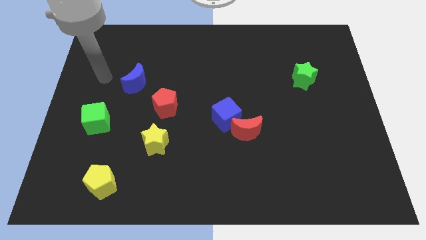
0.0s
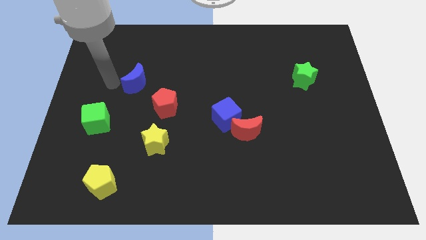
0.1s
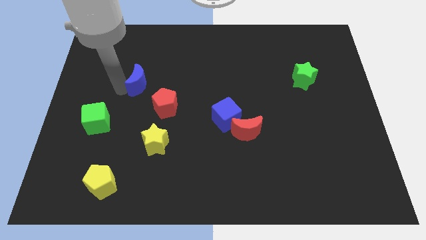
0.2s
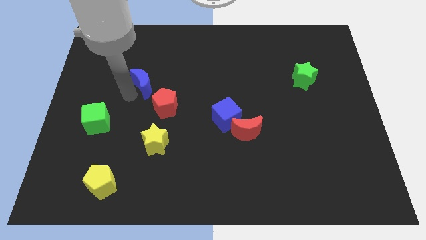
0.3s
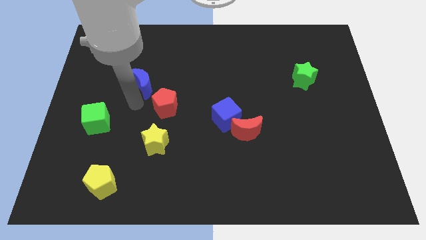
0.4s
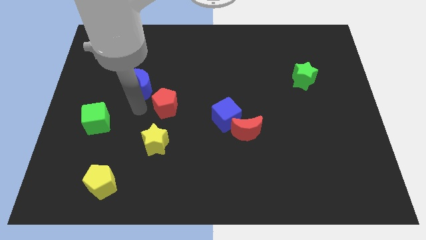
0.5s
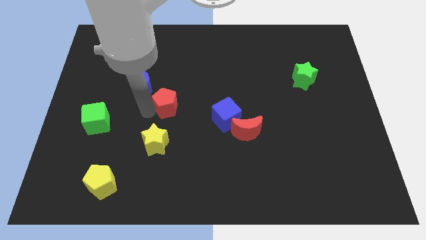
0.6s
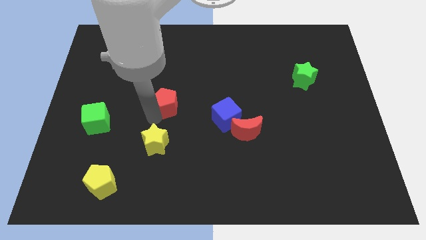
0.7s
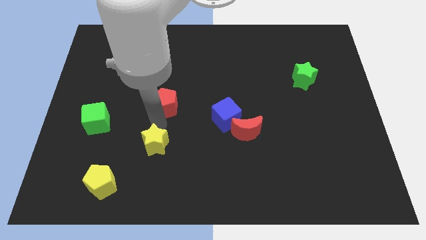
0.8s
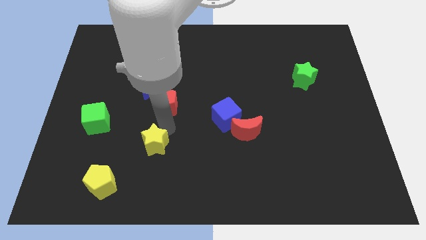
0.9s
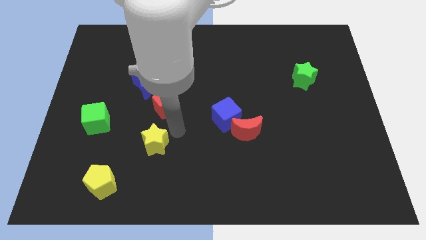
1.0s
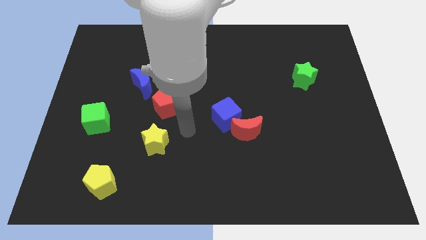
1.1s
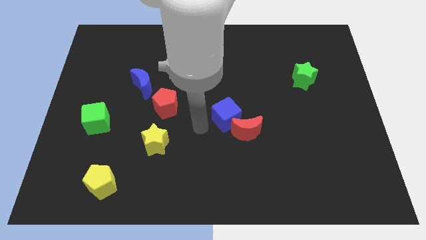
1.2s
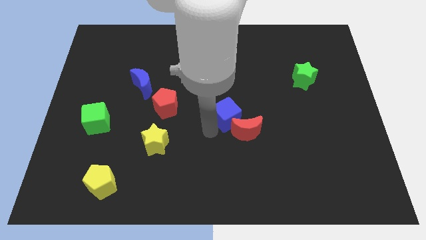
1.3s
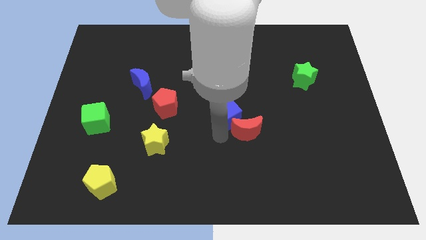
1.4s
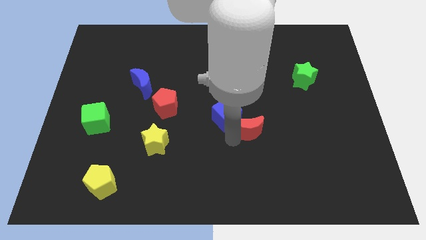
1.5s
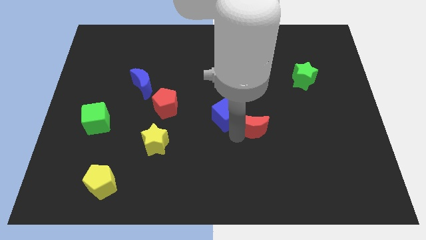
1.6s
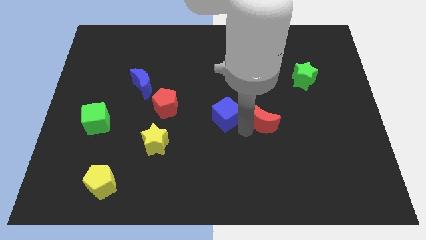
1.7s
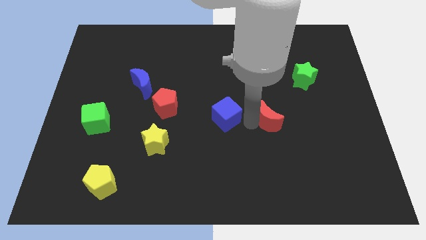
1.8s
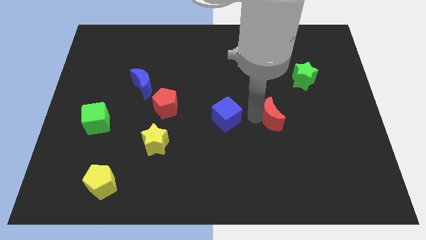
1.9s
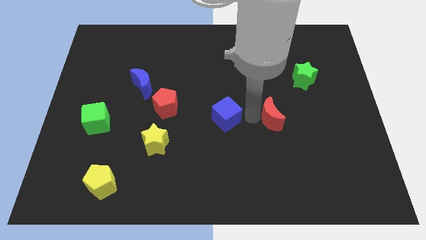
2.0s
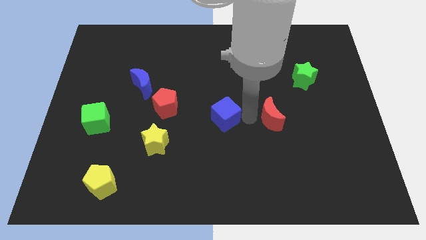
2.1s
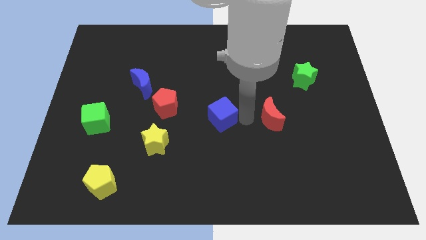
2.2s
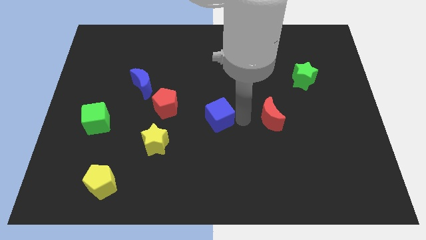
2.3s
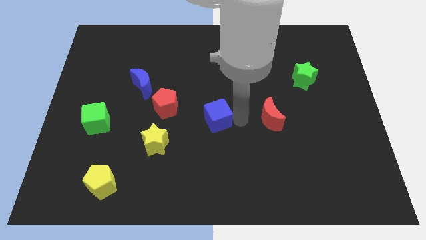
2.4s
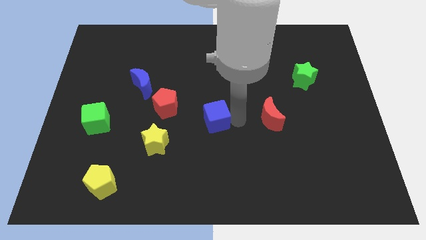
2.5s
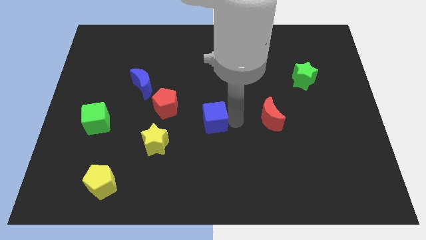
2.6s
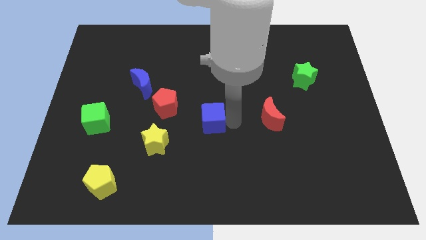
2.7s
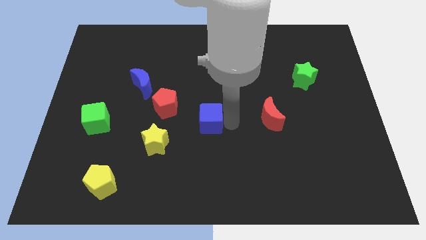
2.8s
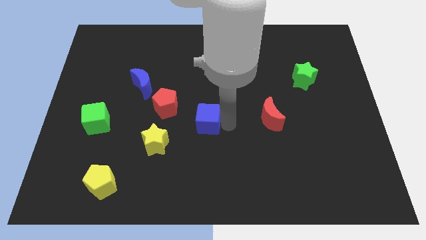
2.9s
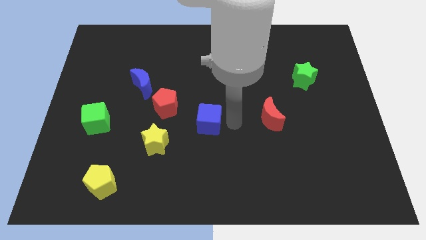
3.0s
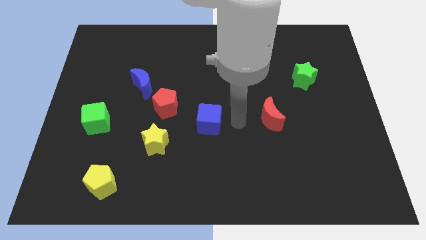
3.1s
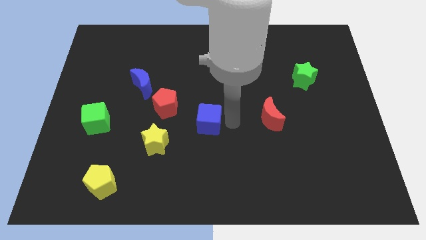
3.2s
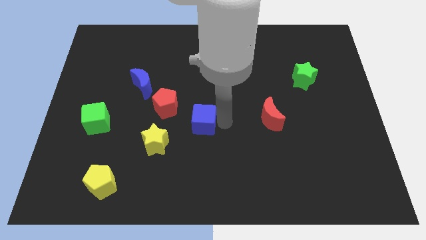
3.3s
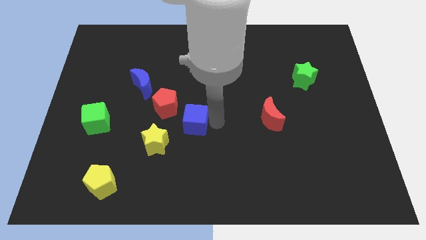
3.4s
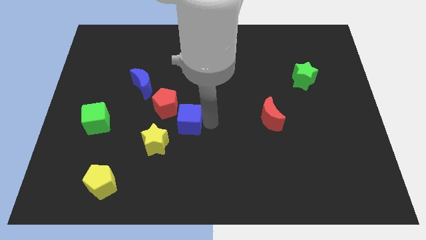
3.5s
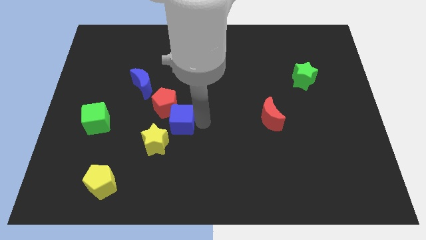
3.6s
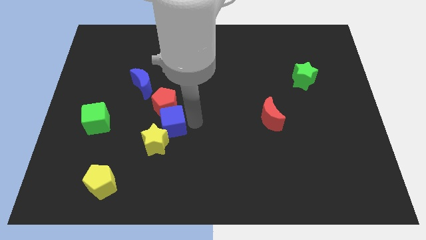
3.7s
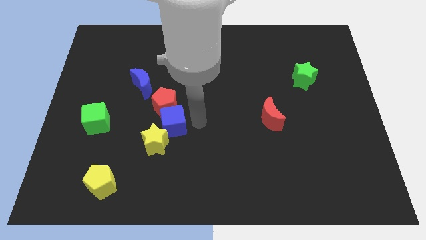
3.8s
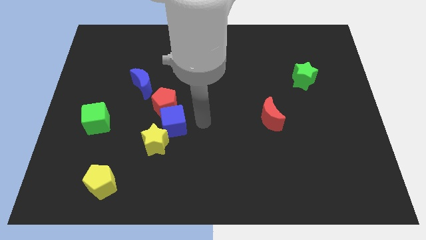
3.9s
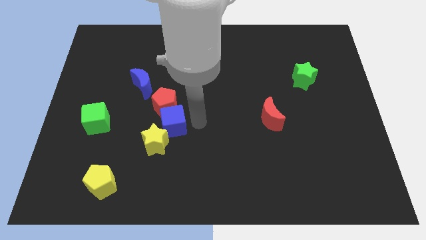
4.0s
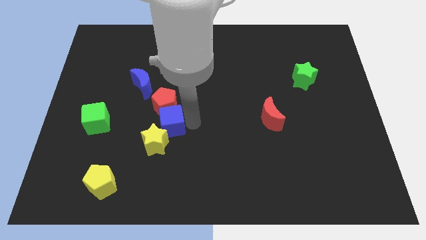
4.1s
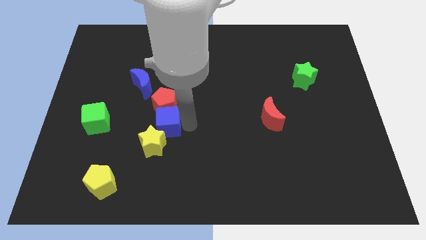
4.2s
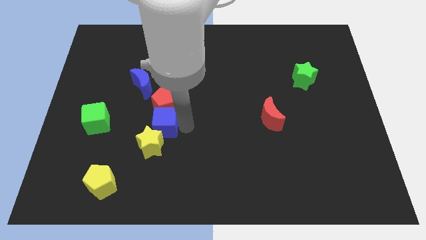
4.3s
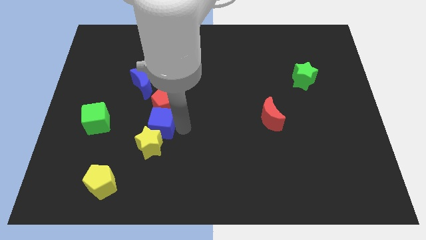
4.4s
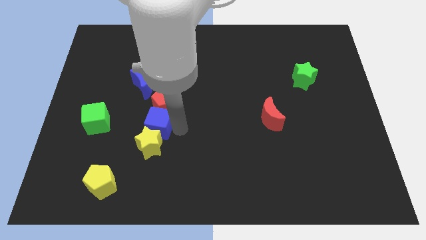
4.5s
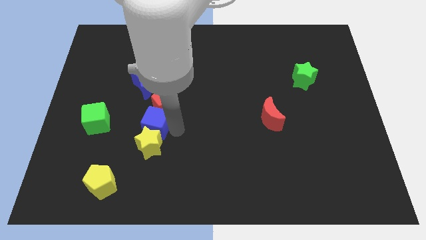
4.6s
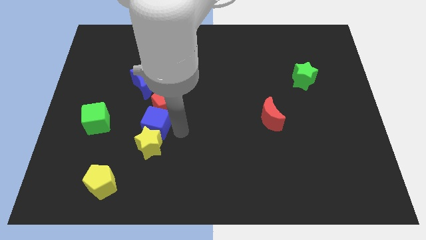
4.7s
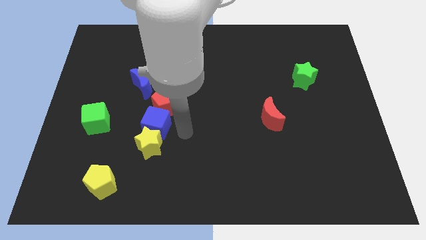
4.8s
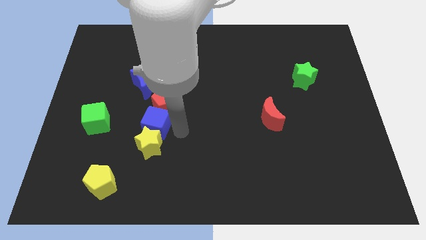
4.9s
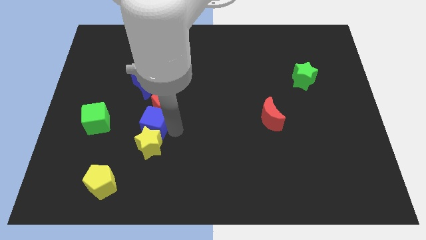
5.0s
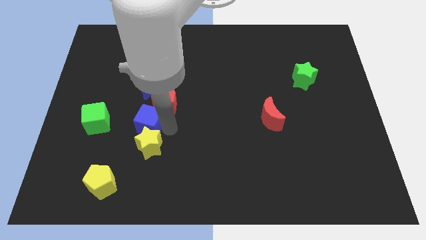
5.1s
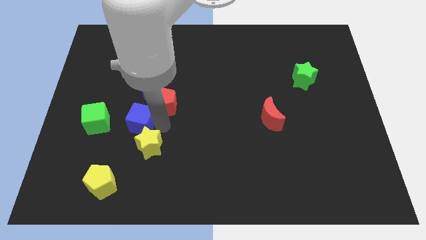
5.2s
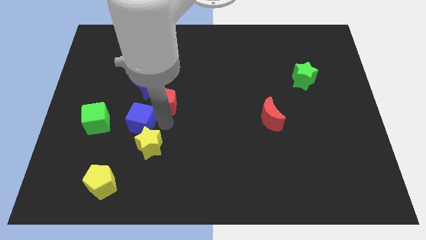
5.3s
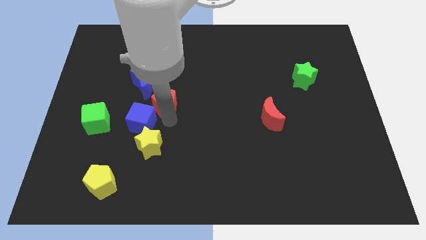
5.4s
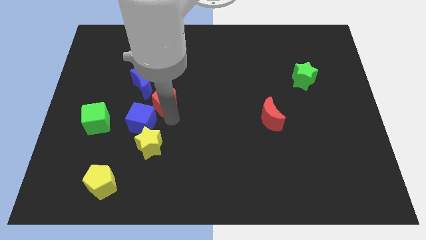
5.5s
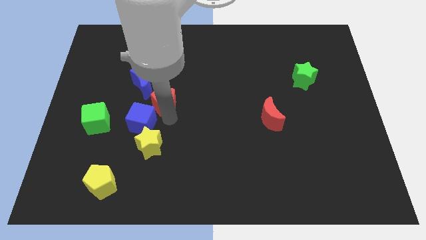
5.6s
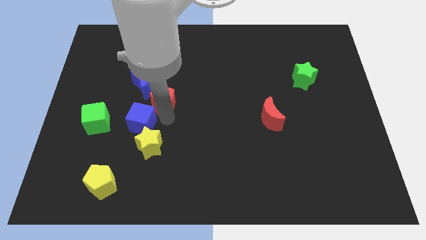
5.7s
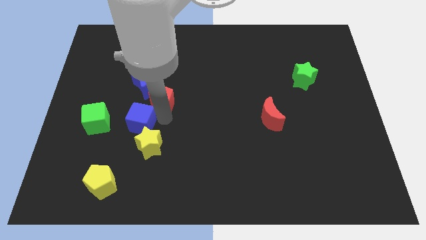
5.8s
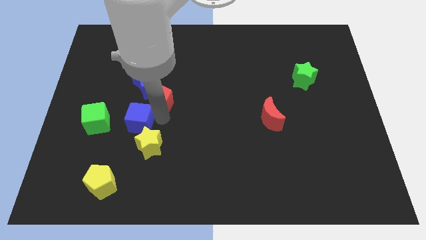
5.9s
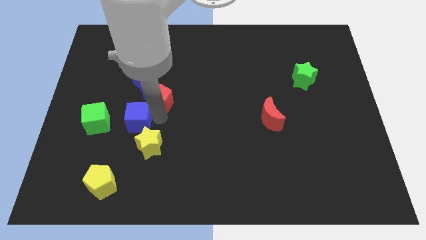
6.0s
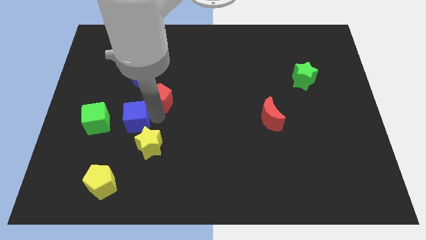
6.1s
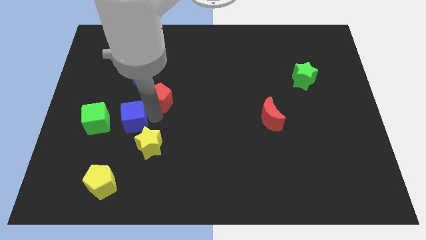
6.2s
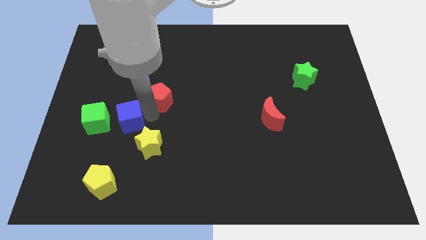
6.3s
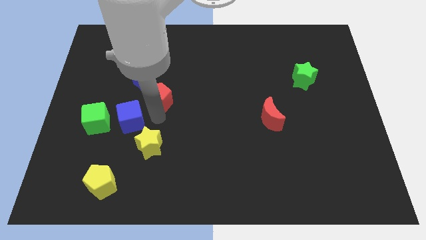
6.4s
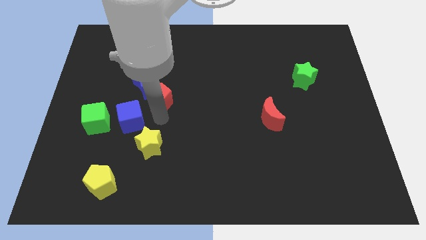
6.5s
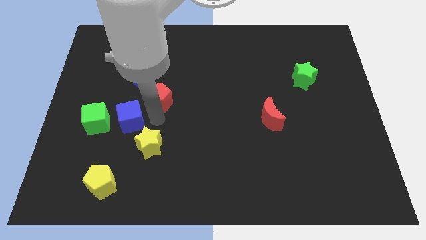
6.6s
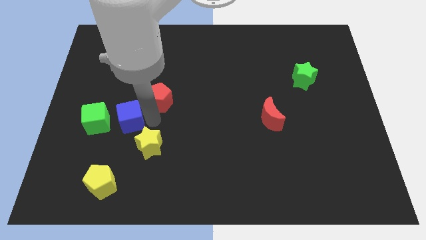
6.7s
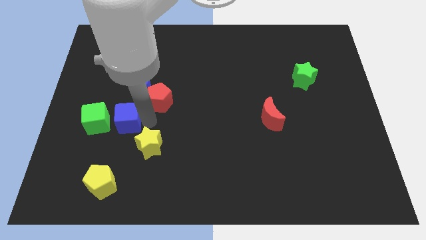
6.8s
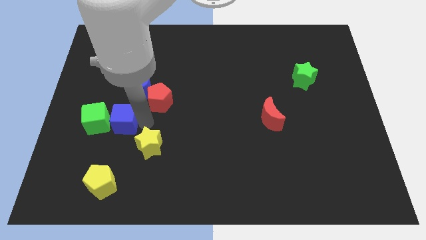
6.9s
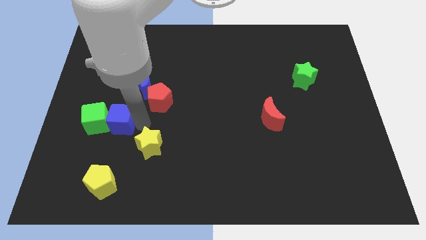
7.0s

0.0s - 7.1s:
put the blue cube next to the green cube

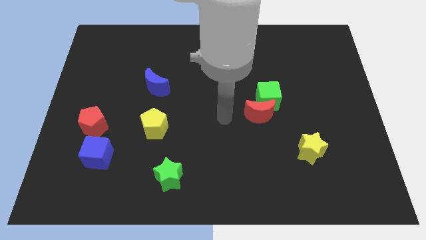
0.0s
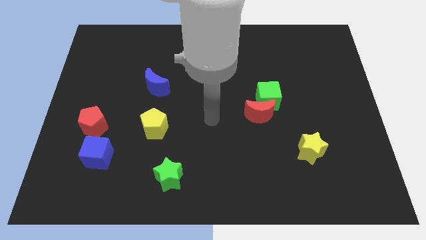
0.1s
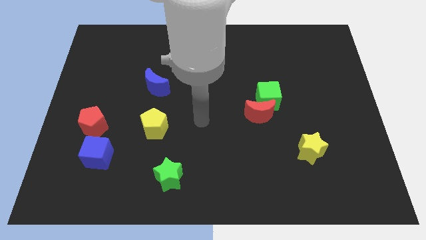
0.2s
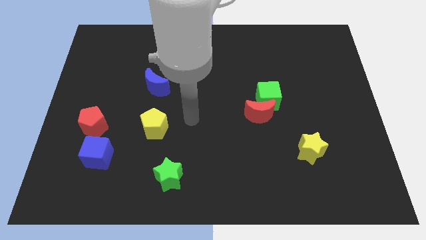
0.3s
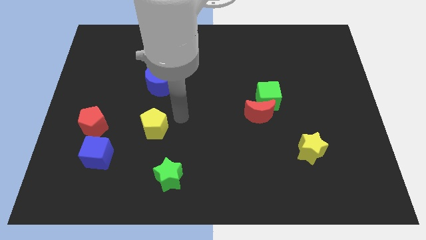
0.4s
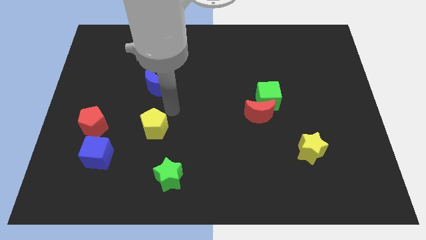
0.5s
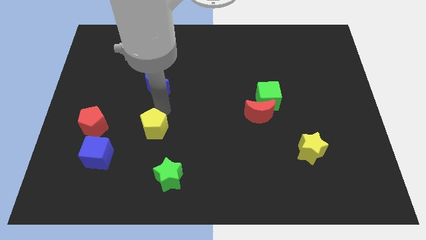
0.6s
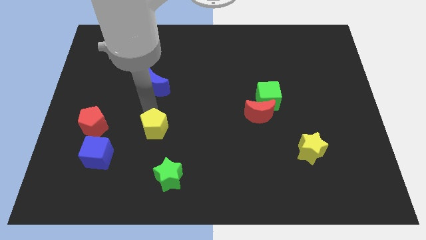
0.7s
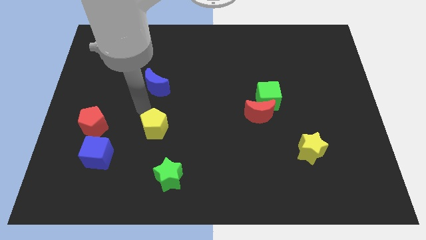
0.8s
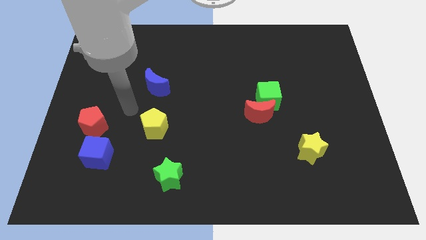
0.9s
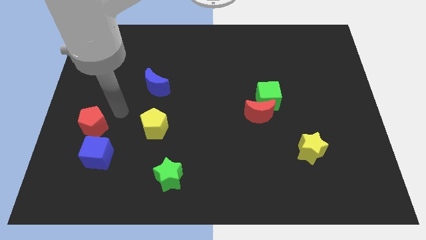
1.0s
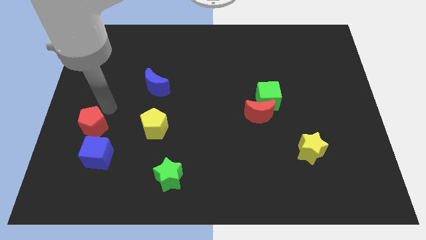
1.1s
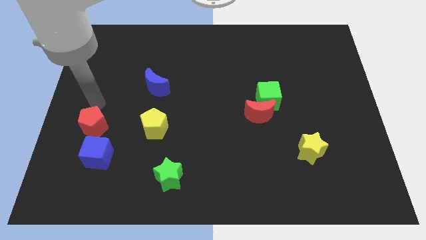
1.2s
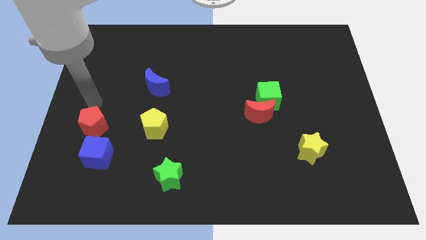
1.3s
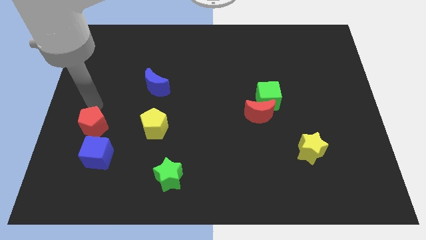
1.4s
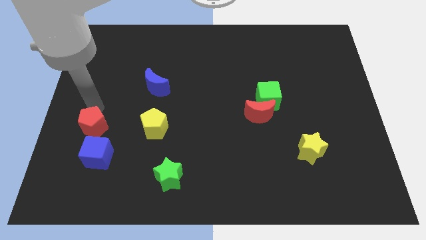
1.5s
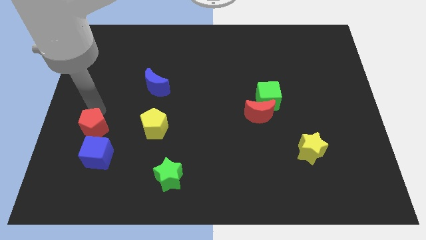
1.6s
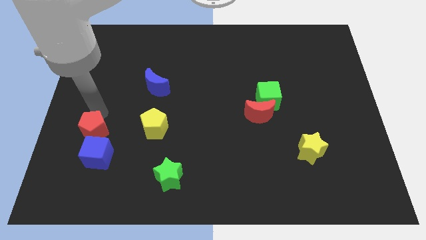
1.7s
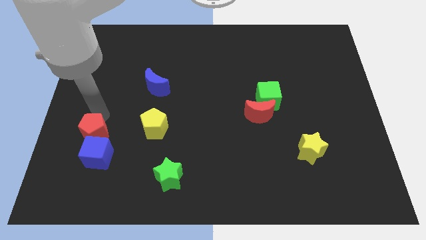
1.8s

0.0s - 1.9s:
put the red pentagon close to the blue cube
